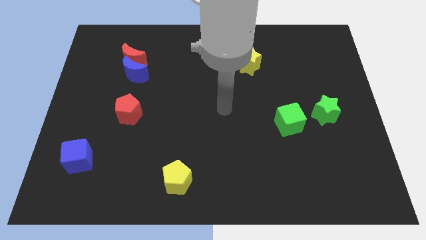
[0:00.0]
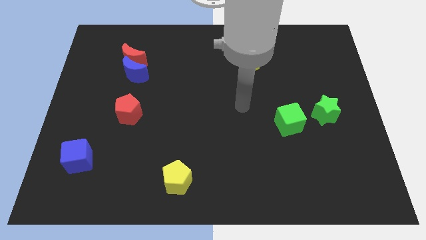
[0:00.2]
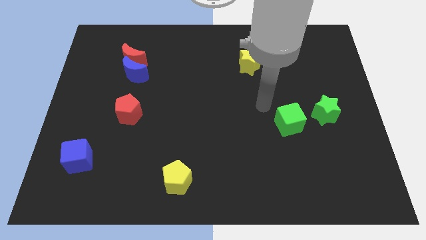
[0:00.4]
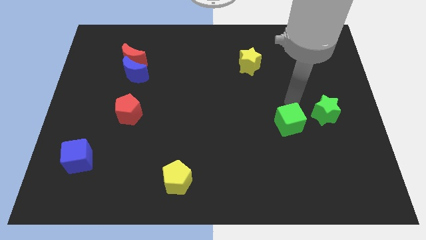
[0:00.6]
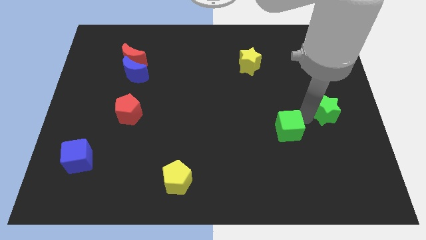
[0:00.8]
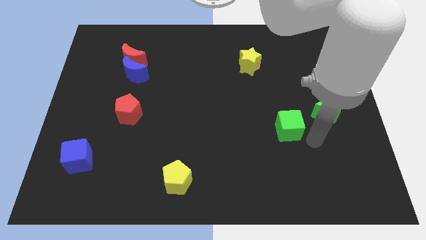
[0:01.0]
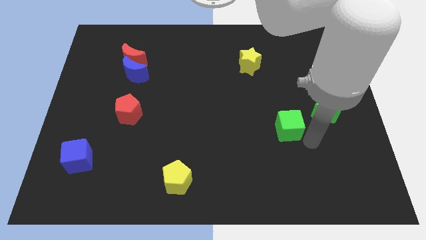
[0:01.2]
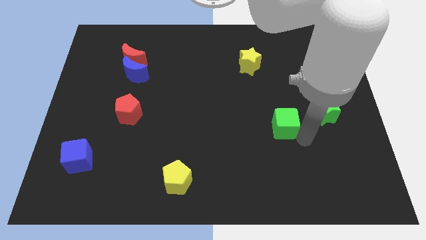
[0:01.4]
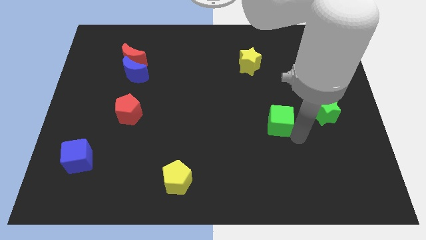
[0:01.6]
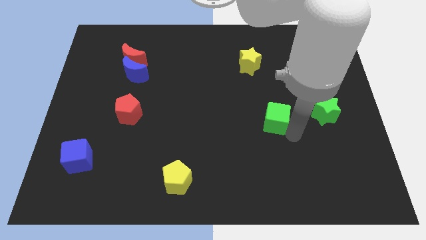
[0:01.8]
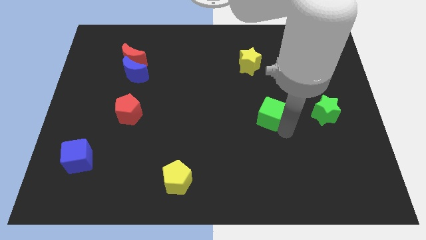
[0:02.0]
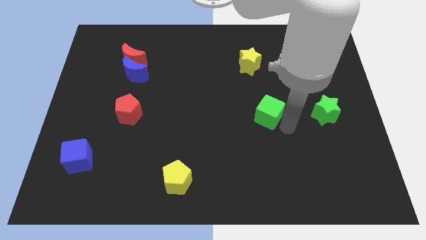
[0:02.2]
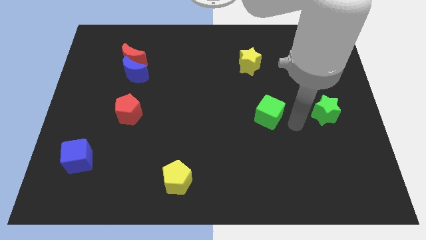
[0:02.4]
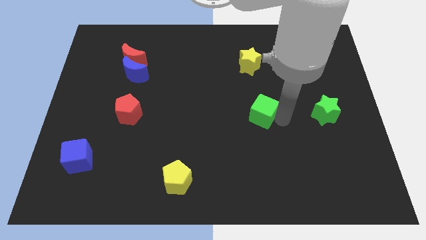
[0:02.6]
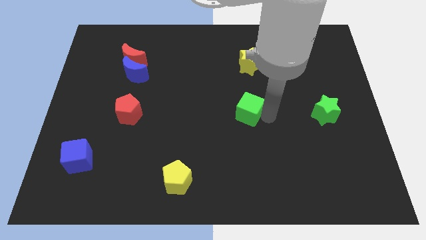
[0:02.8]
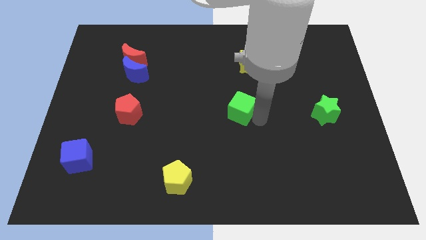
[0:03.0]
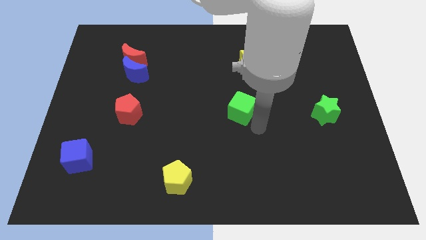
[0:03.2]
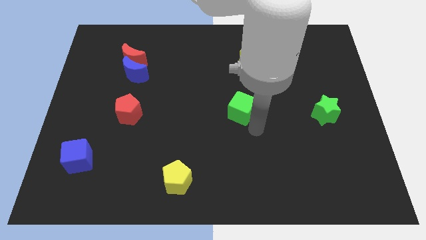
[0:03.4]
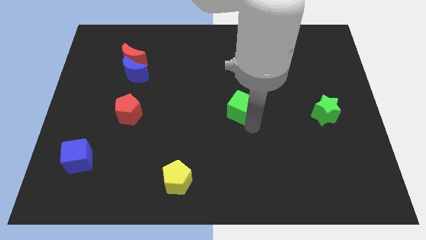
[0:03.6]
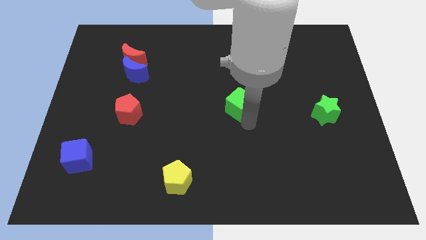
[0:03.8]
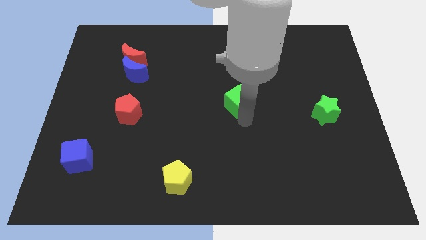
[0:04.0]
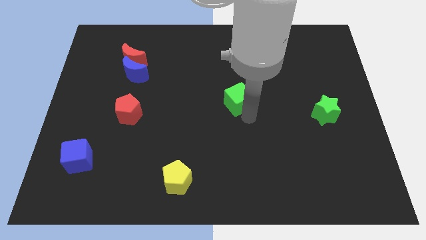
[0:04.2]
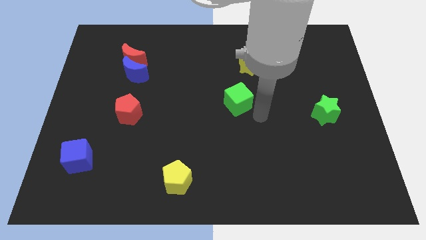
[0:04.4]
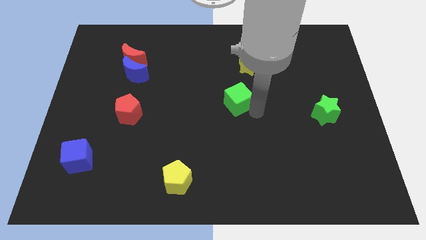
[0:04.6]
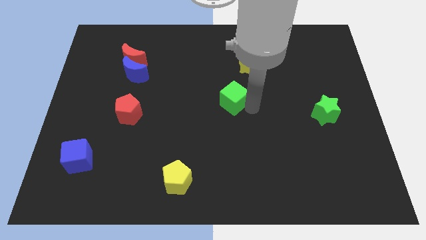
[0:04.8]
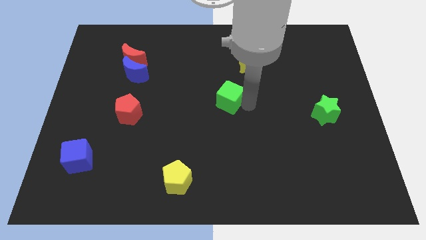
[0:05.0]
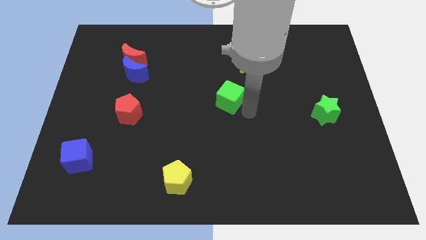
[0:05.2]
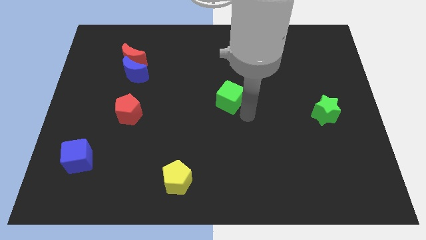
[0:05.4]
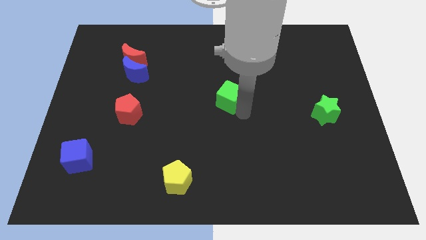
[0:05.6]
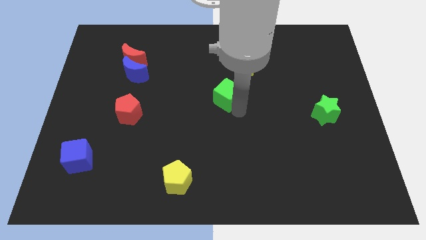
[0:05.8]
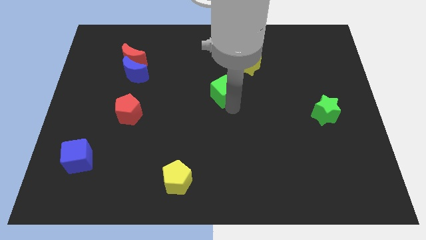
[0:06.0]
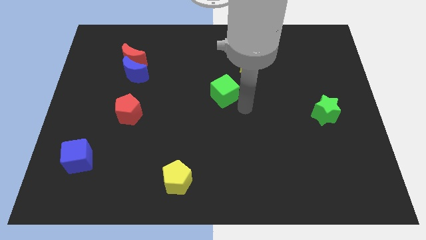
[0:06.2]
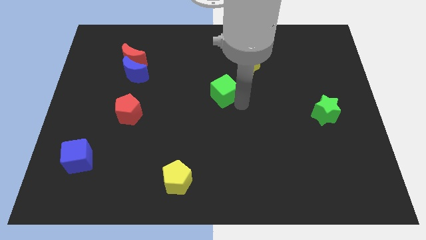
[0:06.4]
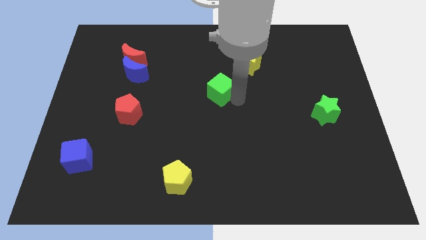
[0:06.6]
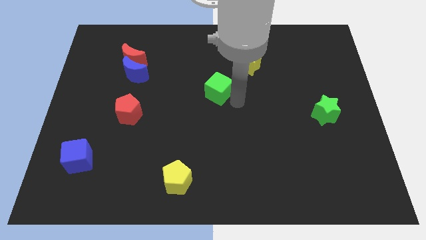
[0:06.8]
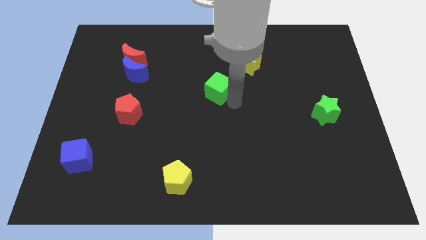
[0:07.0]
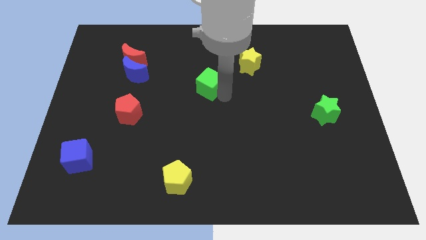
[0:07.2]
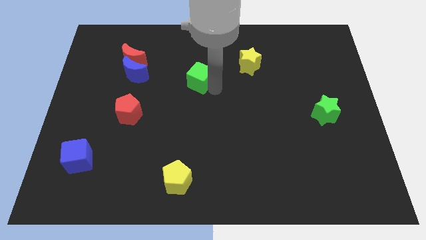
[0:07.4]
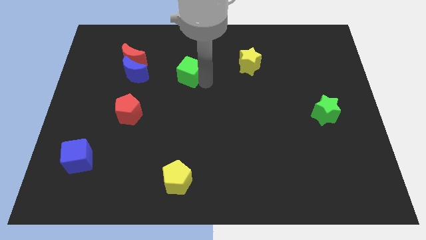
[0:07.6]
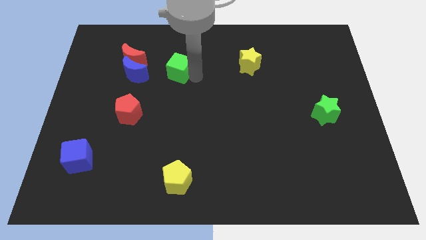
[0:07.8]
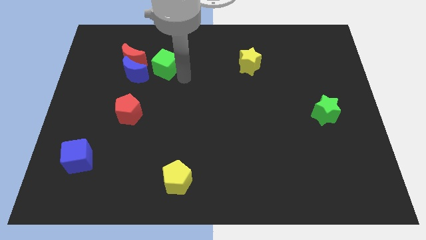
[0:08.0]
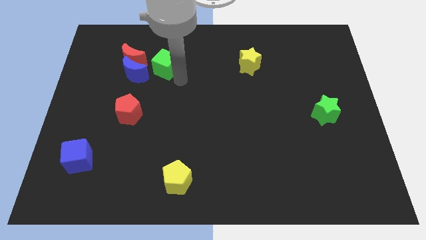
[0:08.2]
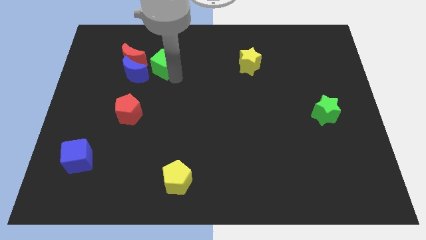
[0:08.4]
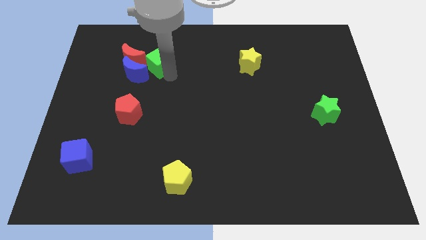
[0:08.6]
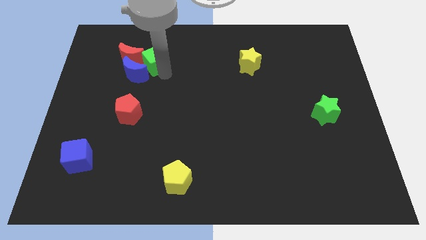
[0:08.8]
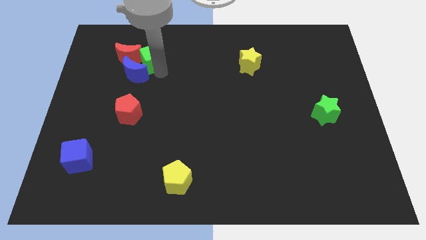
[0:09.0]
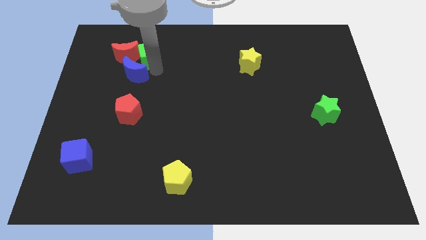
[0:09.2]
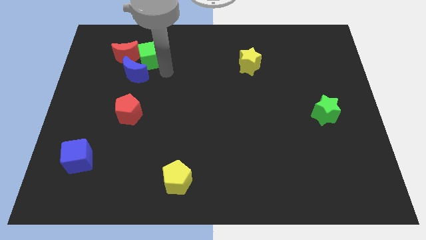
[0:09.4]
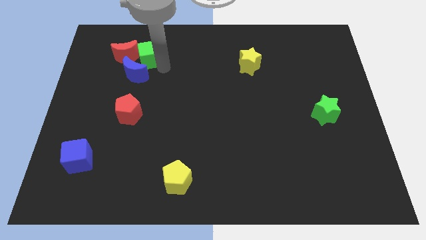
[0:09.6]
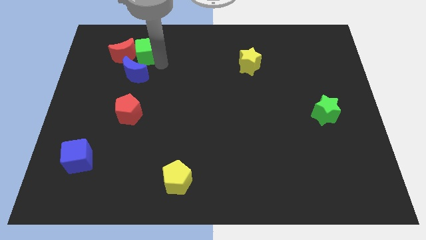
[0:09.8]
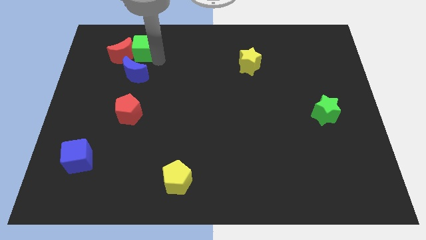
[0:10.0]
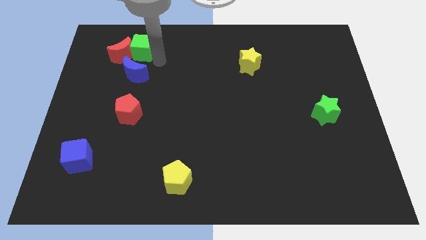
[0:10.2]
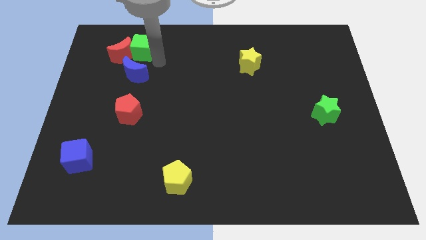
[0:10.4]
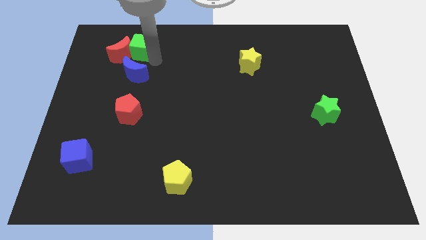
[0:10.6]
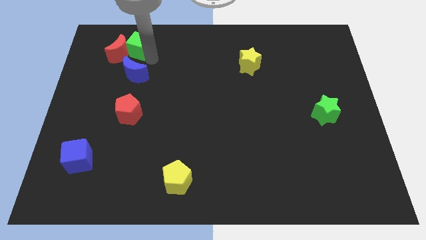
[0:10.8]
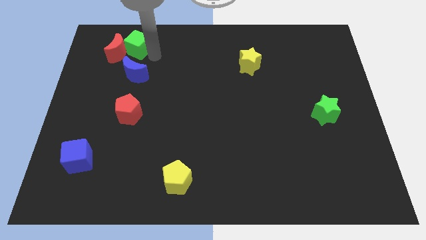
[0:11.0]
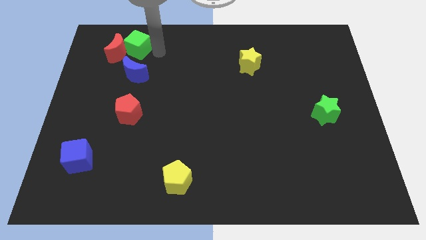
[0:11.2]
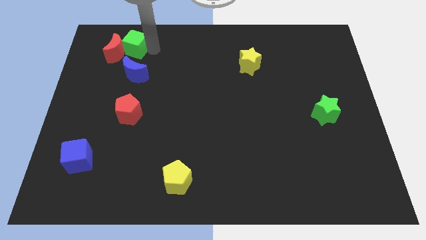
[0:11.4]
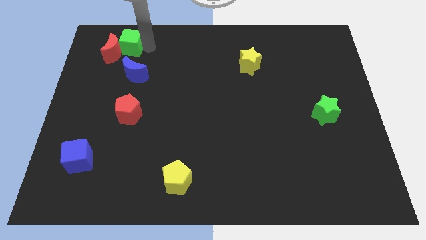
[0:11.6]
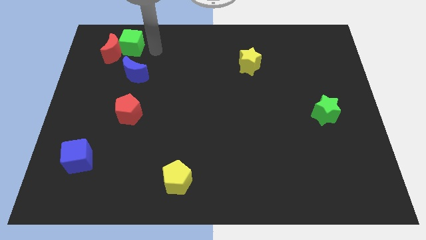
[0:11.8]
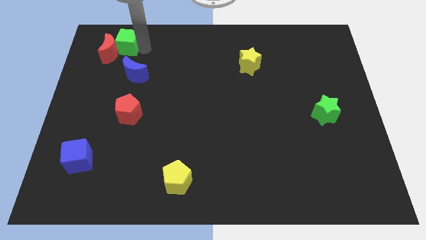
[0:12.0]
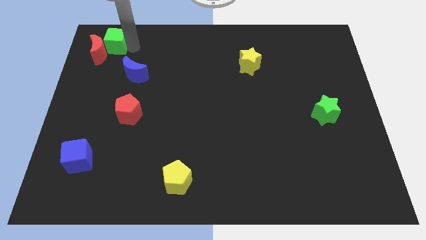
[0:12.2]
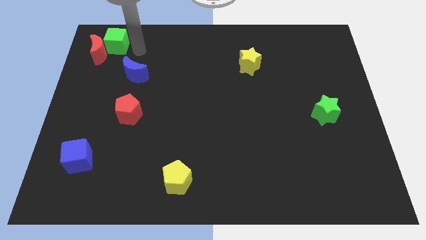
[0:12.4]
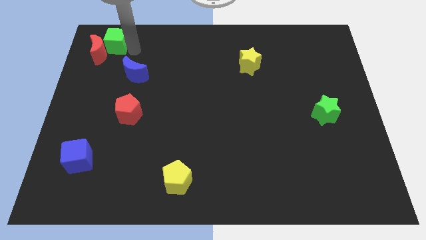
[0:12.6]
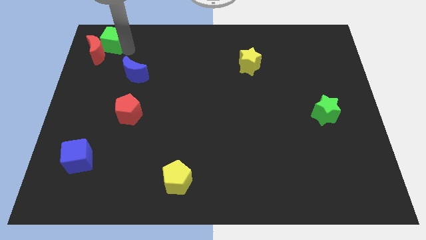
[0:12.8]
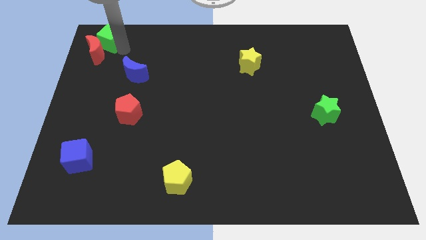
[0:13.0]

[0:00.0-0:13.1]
move the green cube to the top left corner
